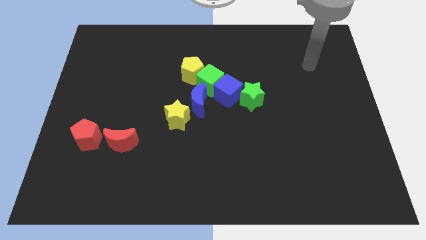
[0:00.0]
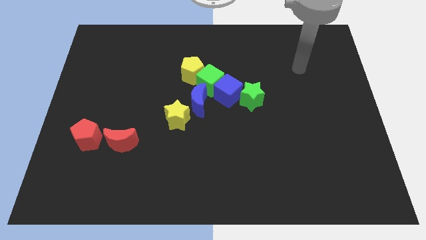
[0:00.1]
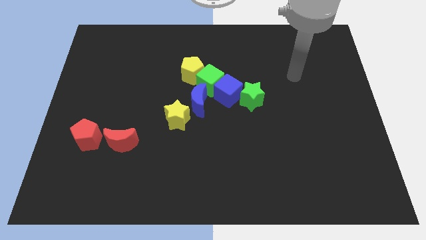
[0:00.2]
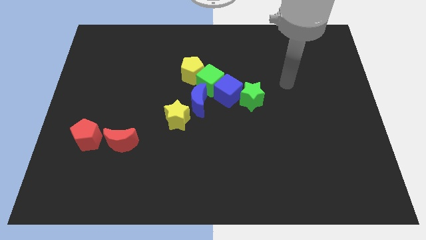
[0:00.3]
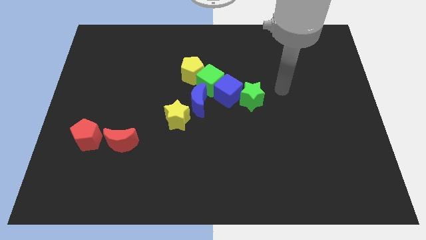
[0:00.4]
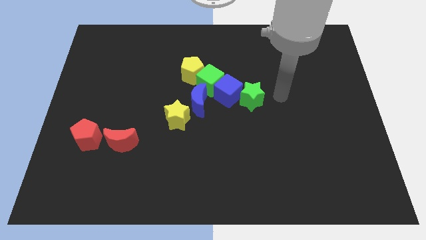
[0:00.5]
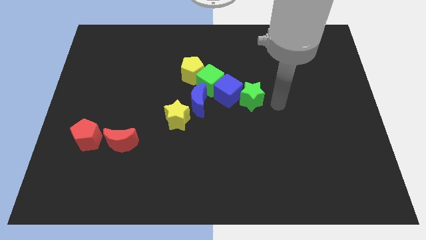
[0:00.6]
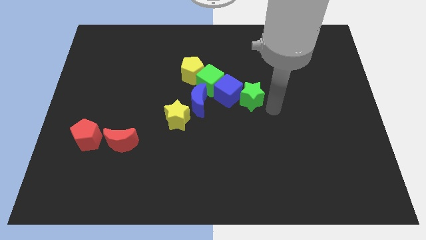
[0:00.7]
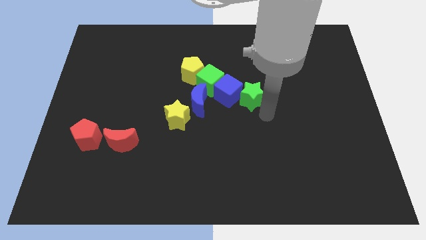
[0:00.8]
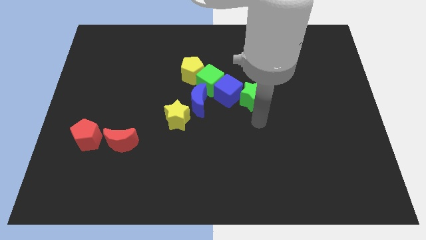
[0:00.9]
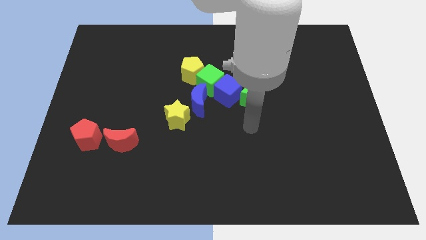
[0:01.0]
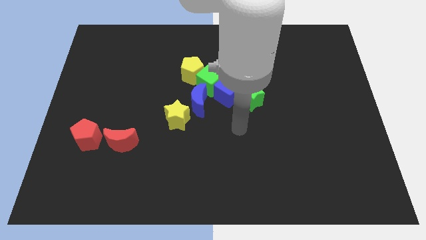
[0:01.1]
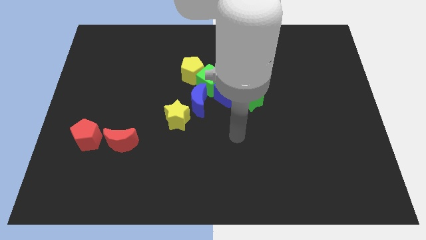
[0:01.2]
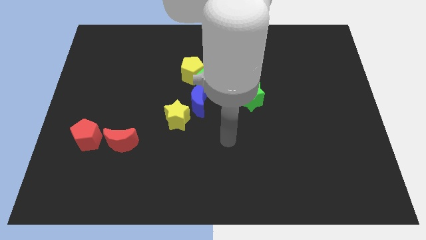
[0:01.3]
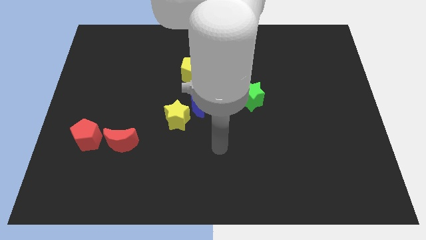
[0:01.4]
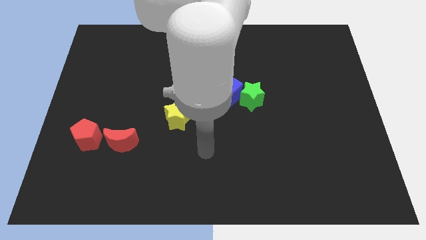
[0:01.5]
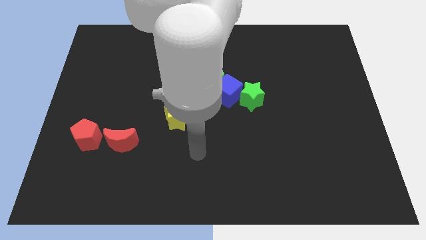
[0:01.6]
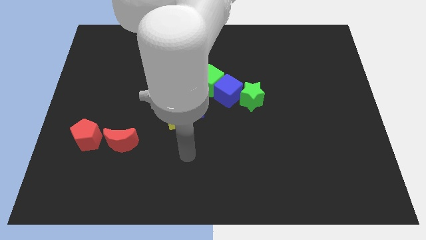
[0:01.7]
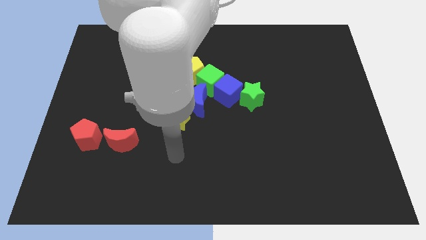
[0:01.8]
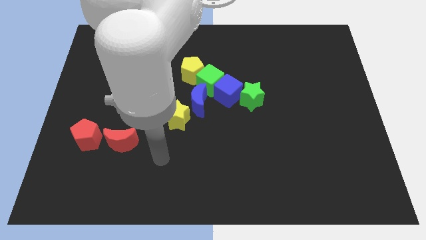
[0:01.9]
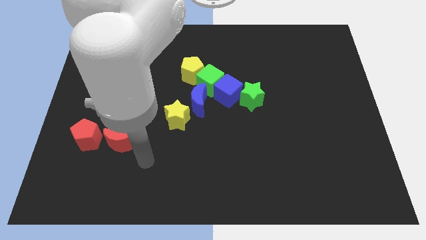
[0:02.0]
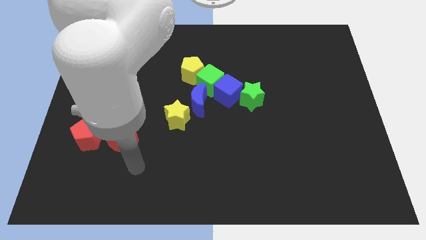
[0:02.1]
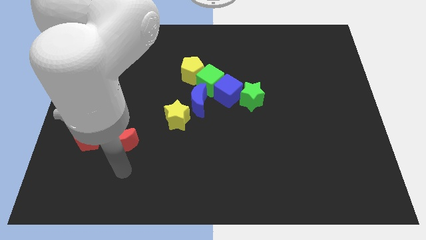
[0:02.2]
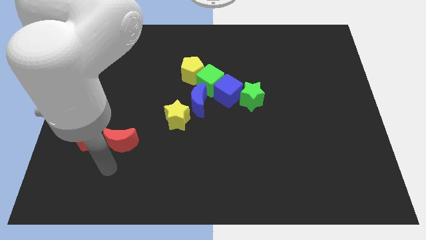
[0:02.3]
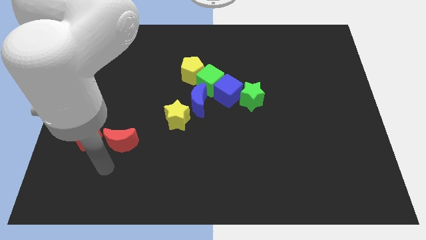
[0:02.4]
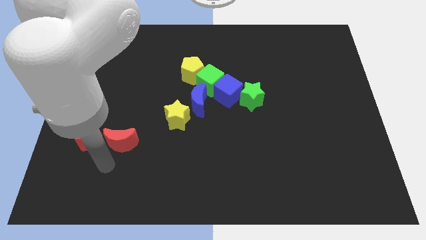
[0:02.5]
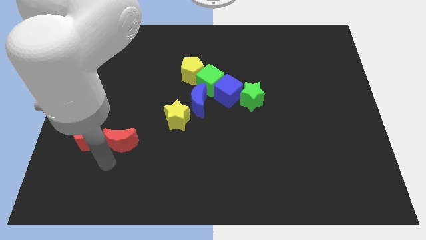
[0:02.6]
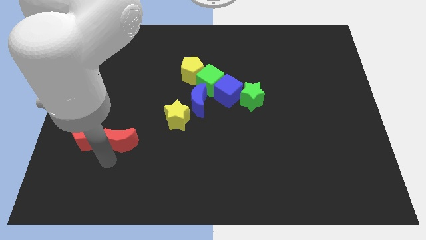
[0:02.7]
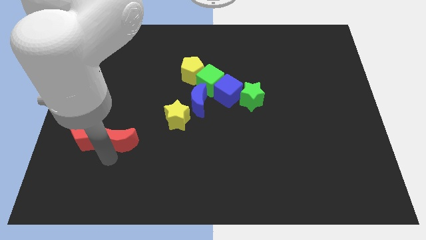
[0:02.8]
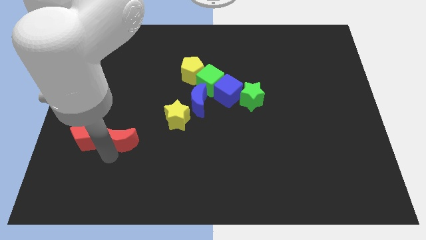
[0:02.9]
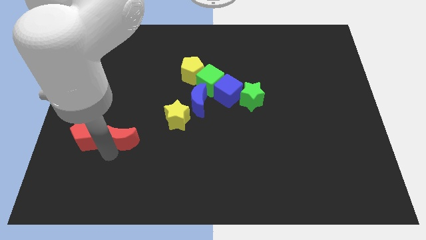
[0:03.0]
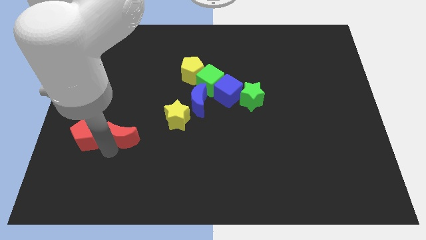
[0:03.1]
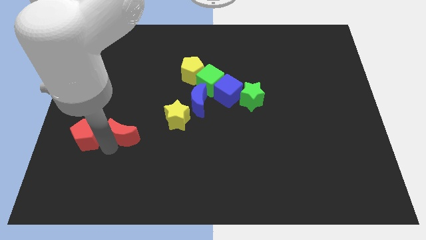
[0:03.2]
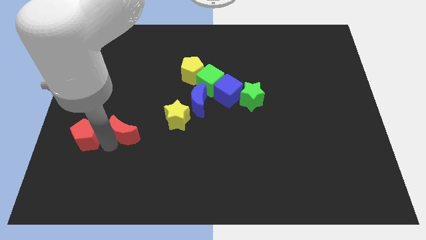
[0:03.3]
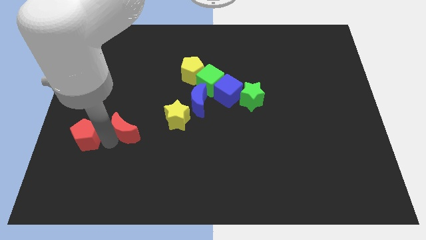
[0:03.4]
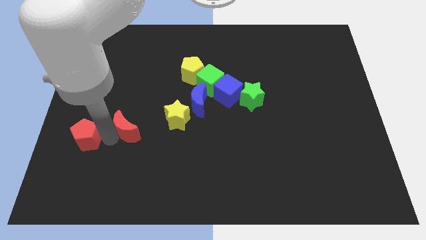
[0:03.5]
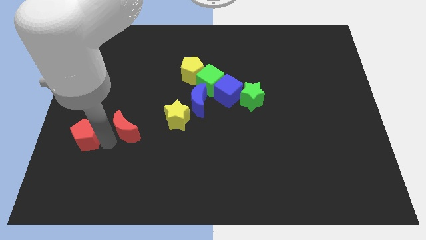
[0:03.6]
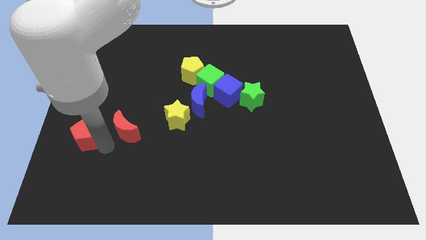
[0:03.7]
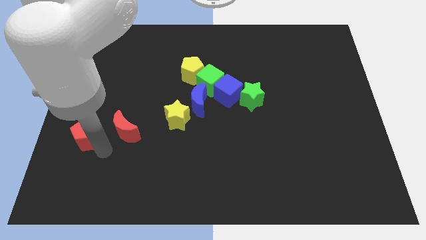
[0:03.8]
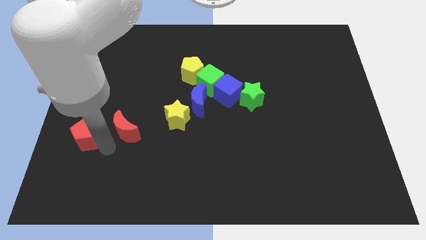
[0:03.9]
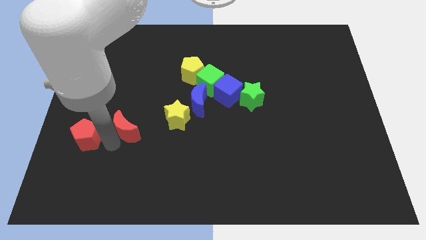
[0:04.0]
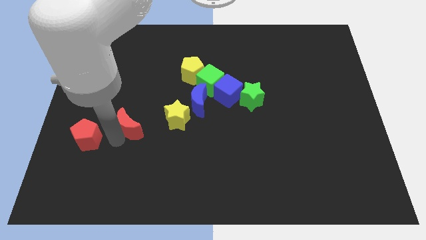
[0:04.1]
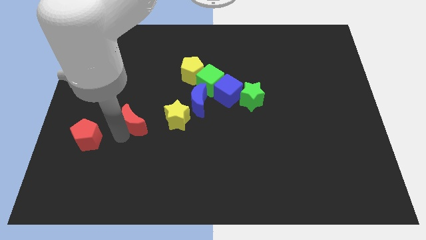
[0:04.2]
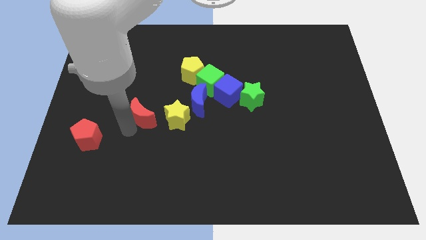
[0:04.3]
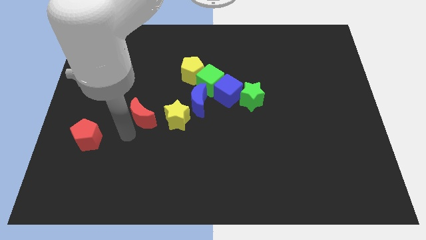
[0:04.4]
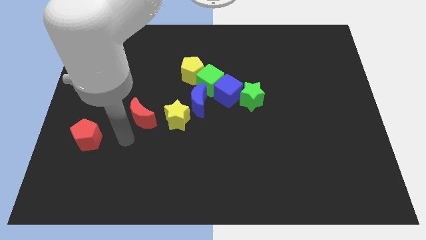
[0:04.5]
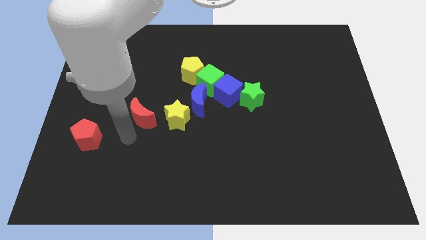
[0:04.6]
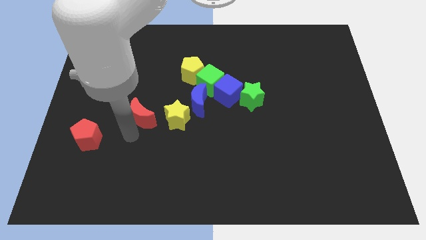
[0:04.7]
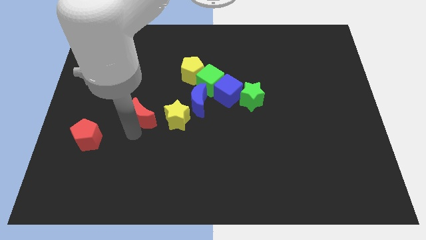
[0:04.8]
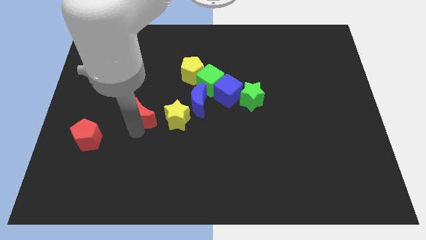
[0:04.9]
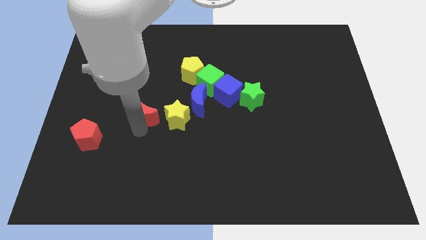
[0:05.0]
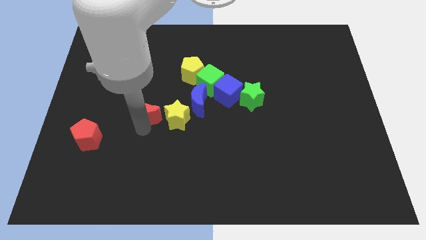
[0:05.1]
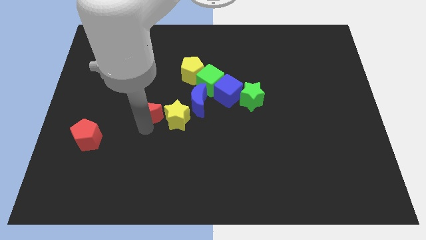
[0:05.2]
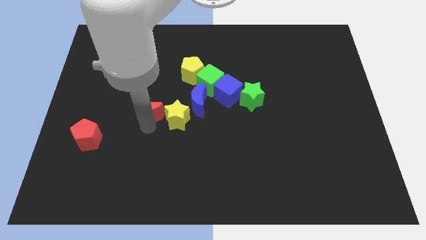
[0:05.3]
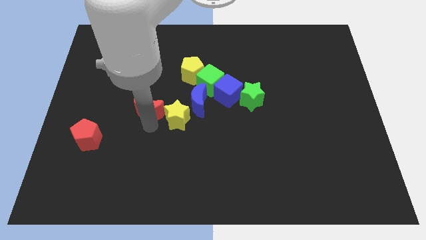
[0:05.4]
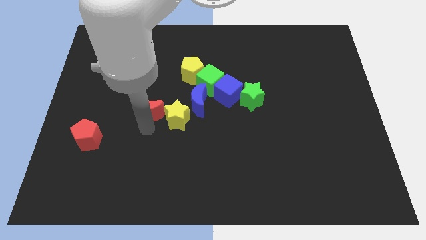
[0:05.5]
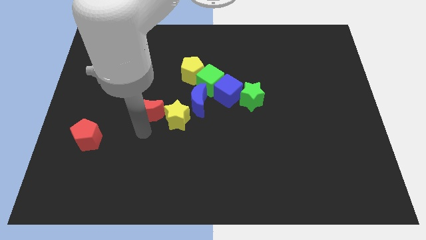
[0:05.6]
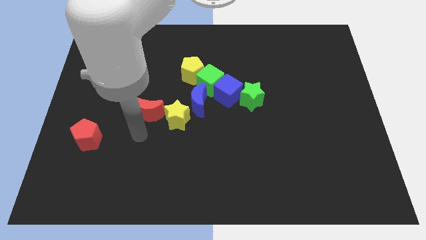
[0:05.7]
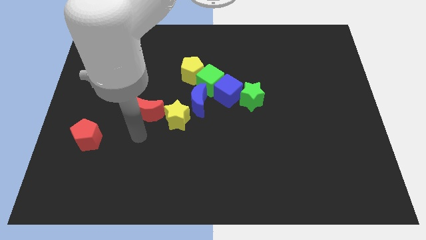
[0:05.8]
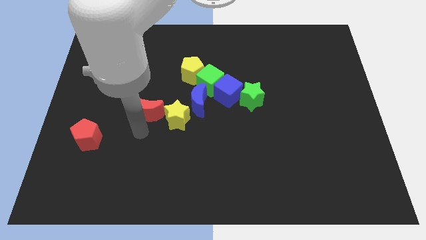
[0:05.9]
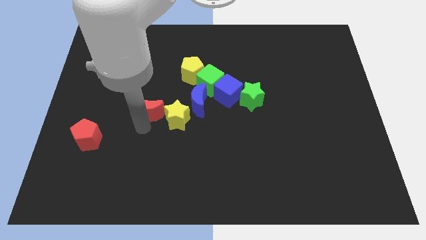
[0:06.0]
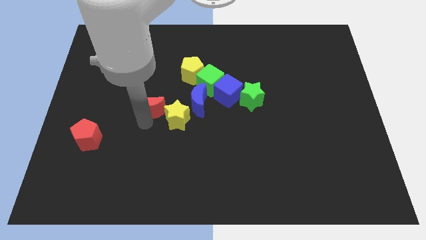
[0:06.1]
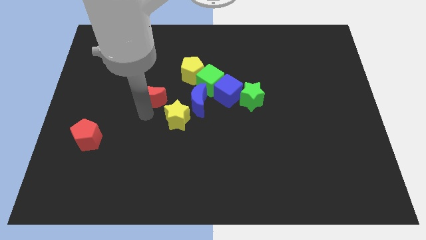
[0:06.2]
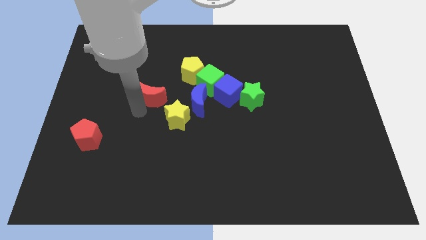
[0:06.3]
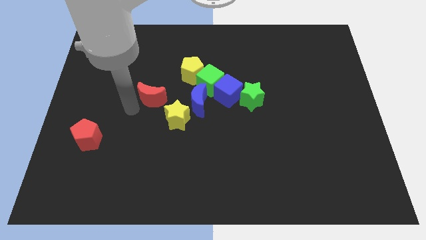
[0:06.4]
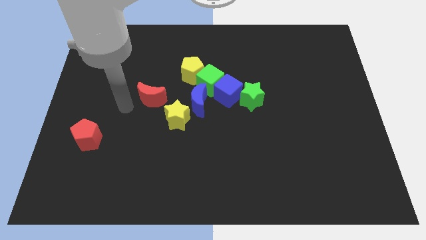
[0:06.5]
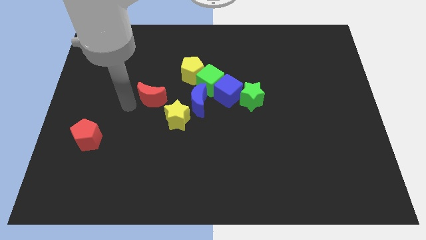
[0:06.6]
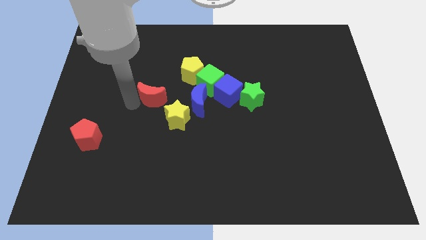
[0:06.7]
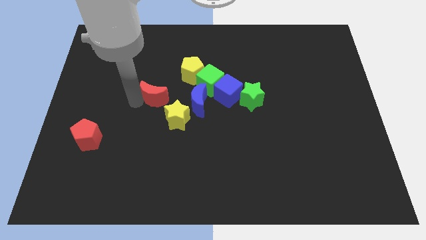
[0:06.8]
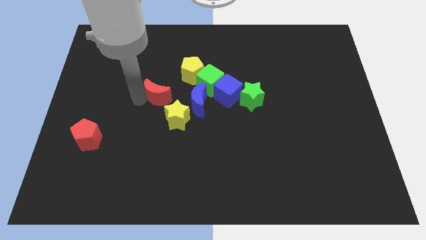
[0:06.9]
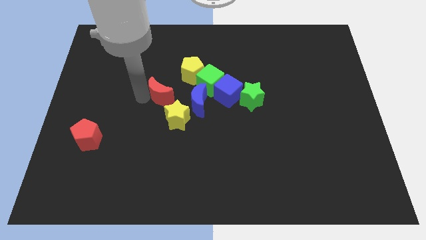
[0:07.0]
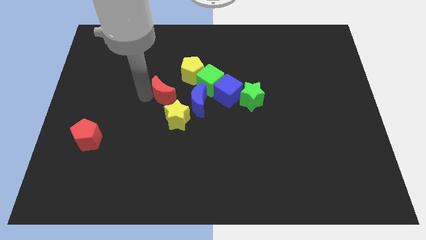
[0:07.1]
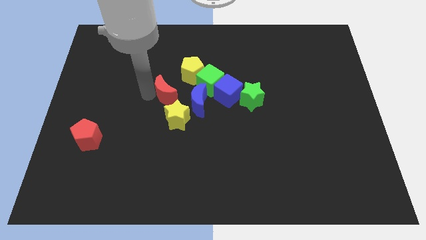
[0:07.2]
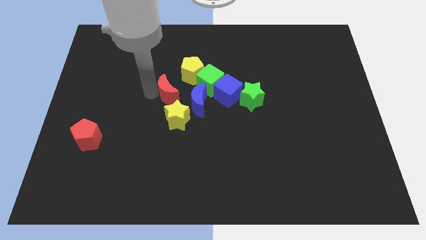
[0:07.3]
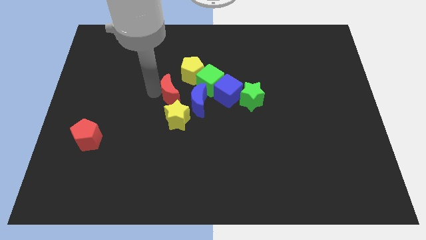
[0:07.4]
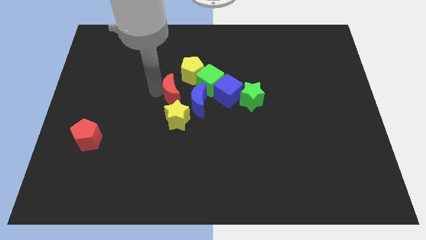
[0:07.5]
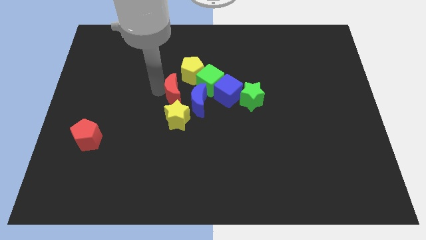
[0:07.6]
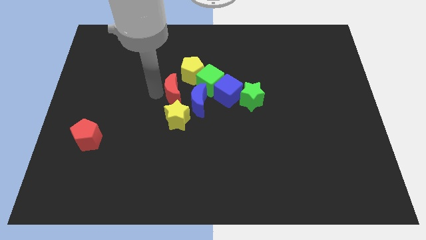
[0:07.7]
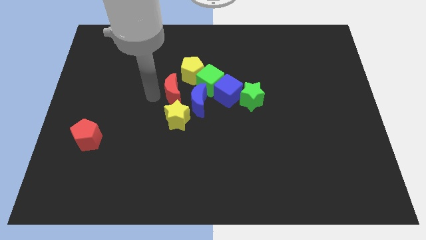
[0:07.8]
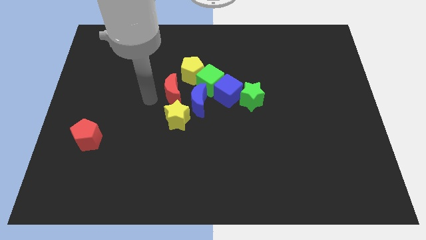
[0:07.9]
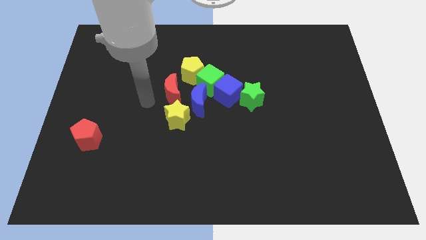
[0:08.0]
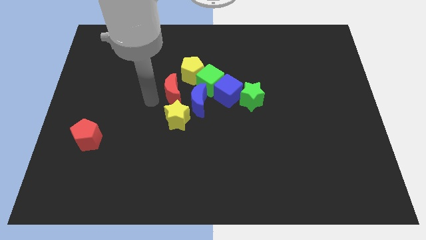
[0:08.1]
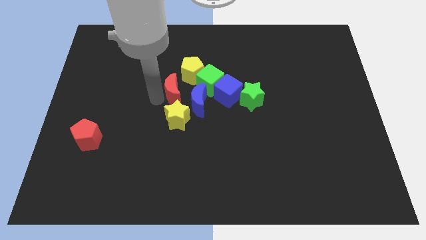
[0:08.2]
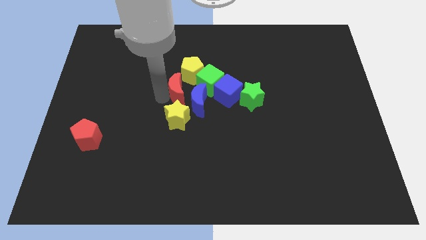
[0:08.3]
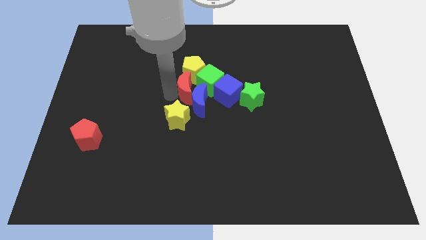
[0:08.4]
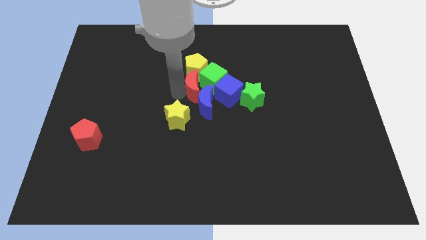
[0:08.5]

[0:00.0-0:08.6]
put the red moon towards the green cube
